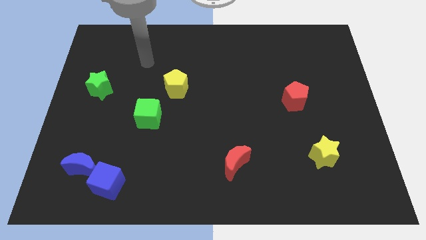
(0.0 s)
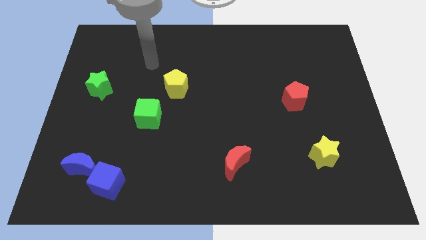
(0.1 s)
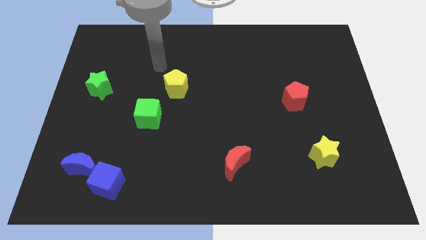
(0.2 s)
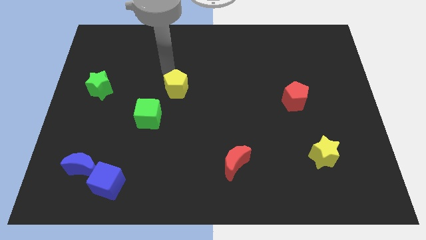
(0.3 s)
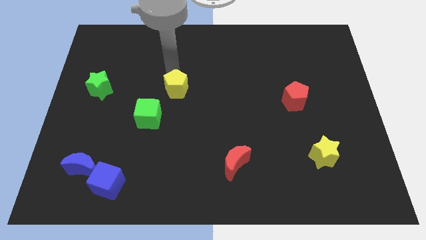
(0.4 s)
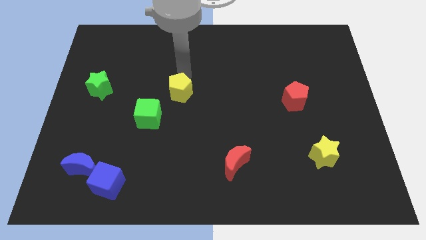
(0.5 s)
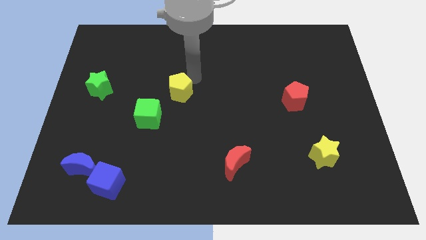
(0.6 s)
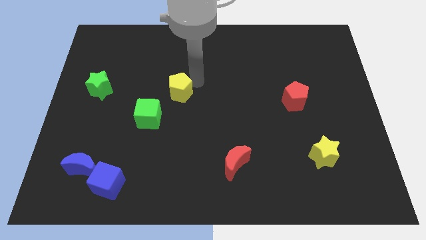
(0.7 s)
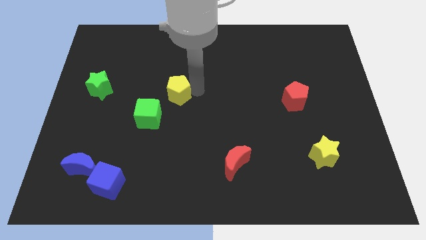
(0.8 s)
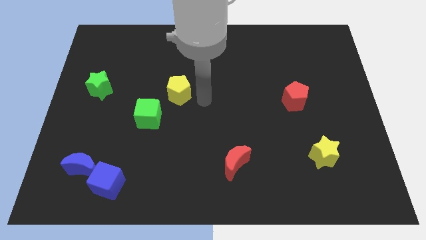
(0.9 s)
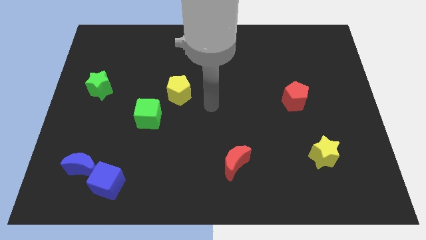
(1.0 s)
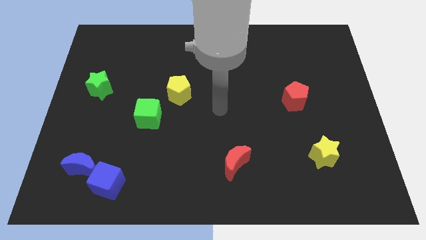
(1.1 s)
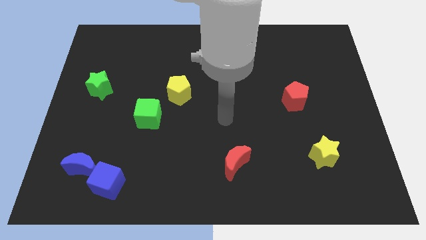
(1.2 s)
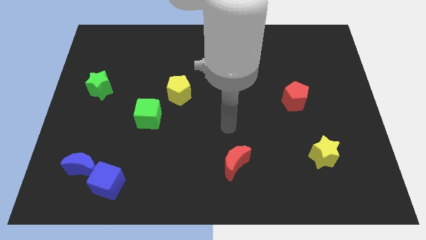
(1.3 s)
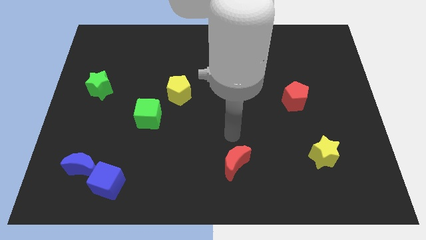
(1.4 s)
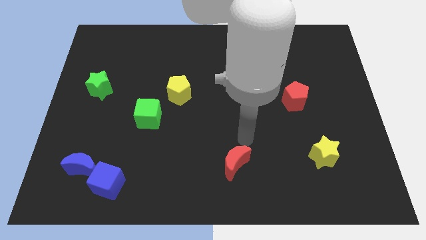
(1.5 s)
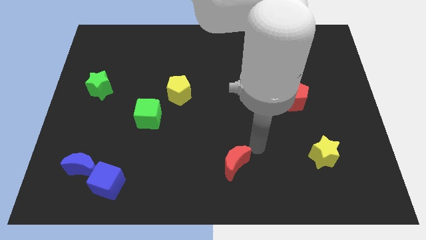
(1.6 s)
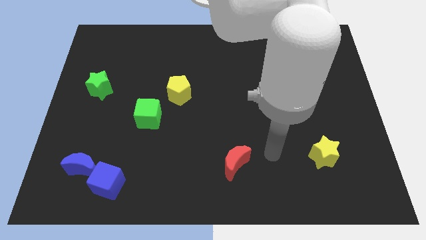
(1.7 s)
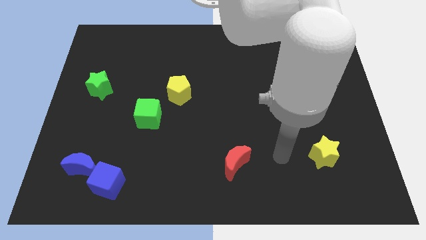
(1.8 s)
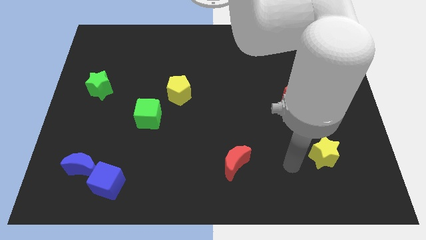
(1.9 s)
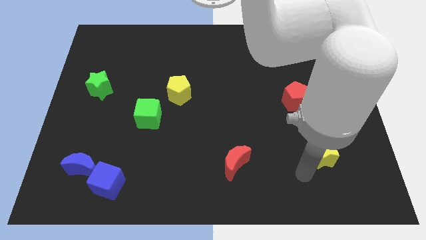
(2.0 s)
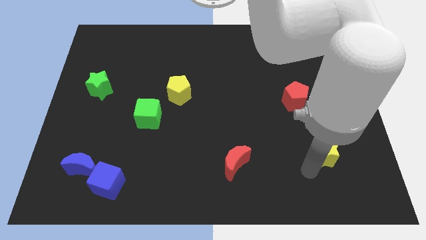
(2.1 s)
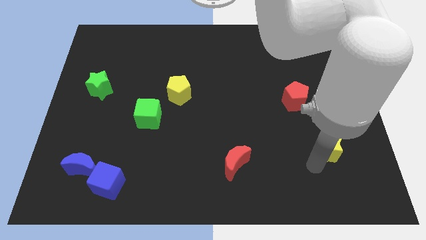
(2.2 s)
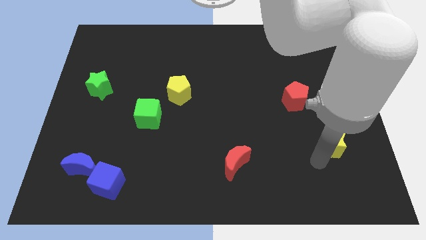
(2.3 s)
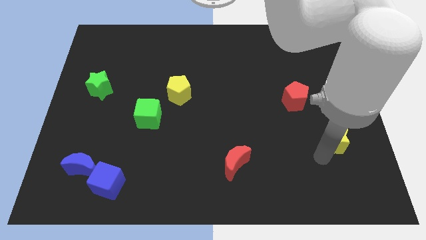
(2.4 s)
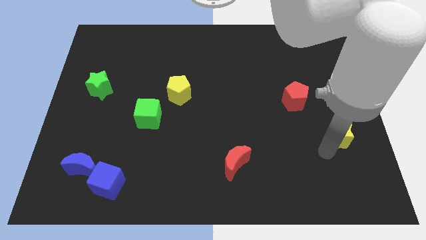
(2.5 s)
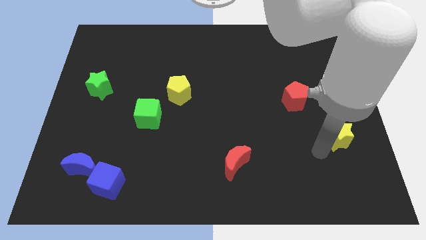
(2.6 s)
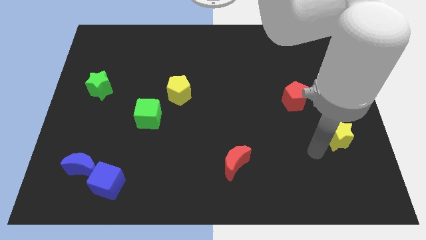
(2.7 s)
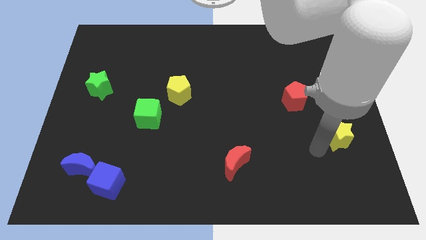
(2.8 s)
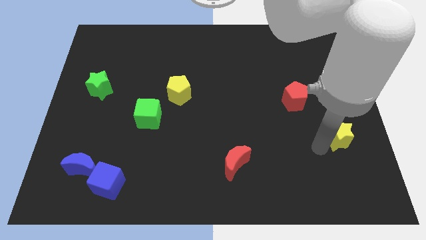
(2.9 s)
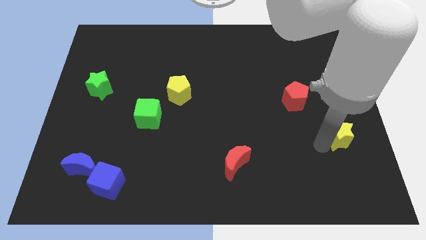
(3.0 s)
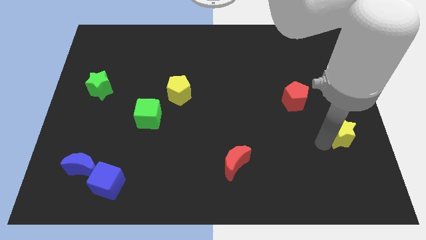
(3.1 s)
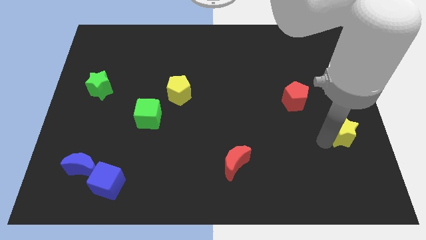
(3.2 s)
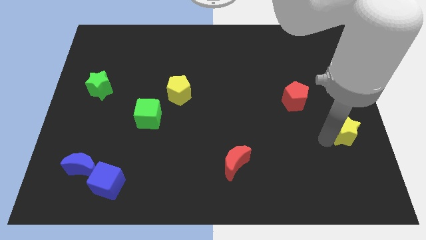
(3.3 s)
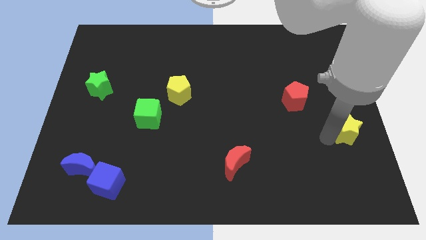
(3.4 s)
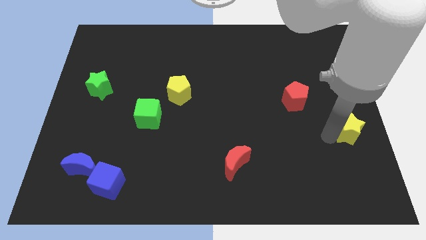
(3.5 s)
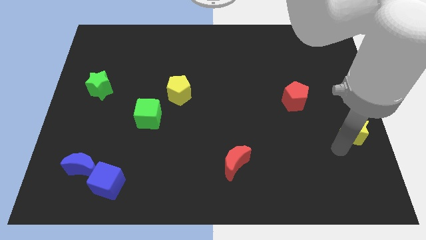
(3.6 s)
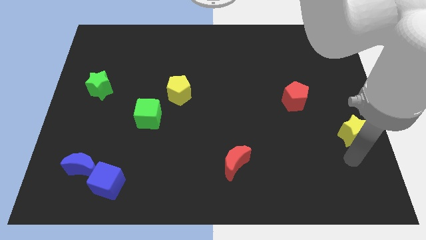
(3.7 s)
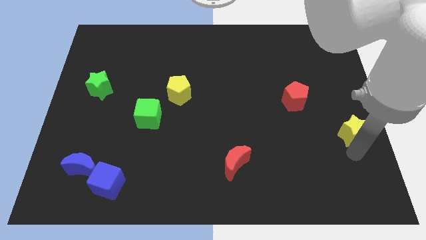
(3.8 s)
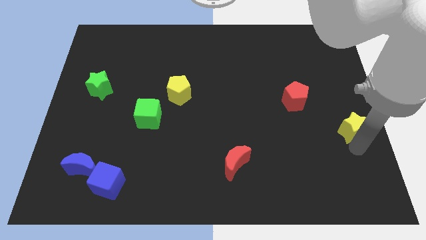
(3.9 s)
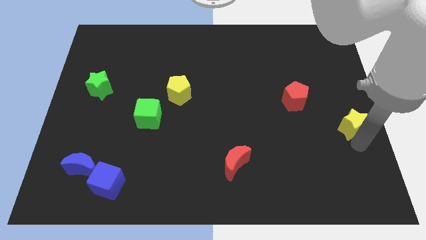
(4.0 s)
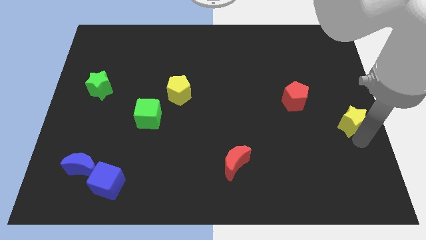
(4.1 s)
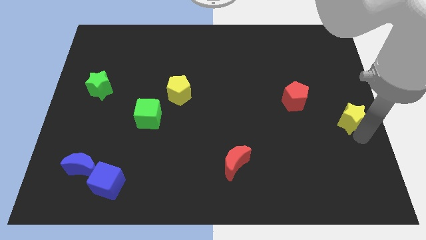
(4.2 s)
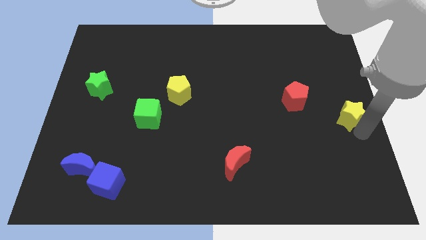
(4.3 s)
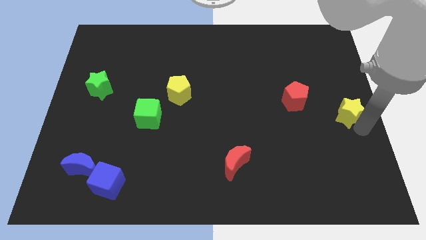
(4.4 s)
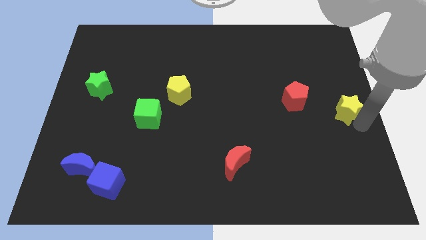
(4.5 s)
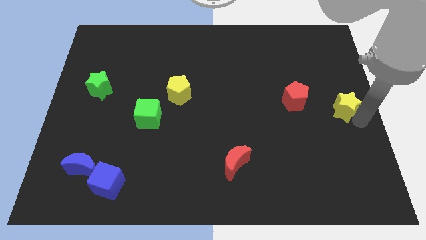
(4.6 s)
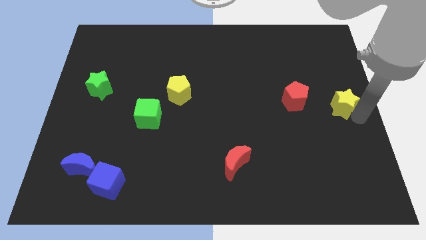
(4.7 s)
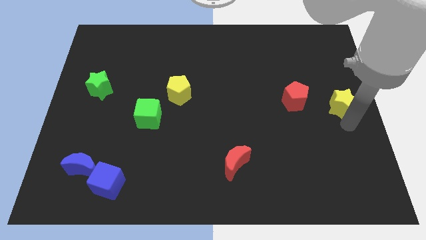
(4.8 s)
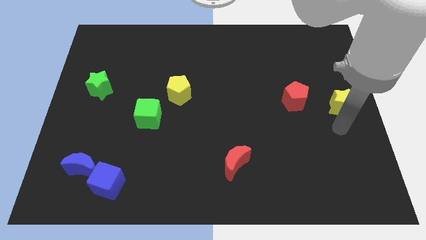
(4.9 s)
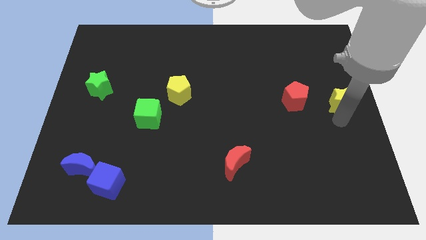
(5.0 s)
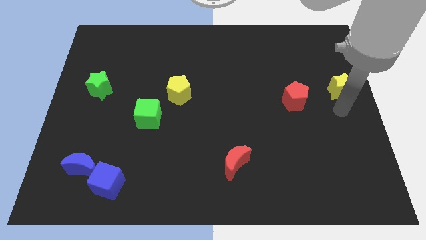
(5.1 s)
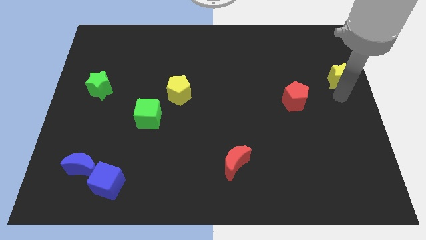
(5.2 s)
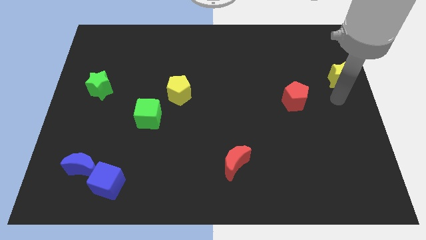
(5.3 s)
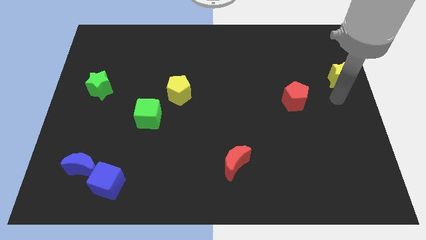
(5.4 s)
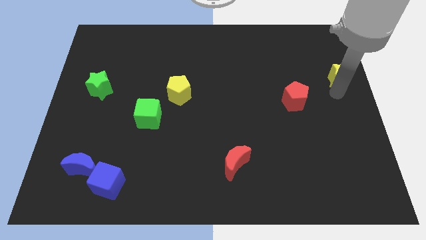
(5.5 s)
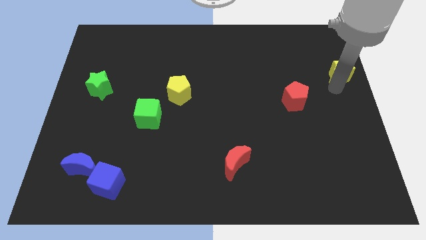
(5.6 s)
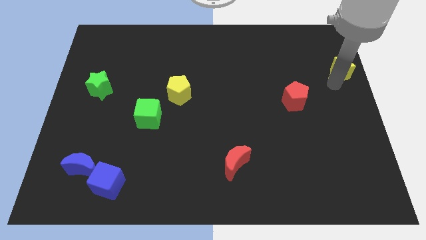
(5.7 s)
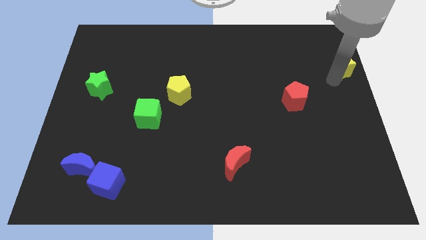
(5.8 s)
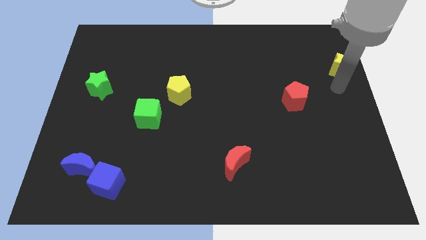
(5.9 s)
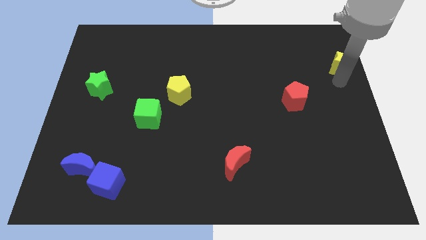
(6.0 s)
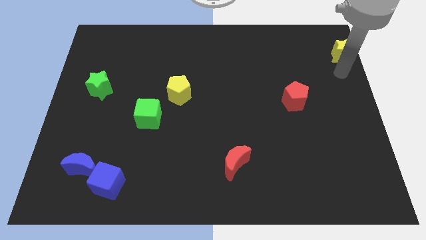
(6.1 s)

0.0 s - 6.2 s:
put the yellow star to the top right corner
